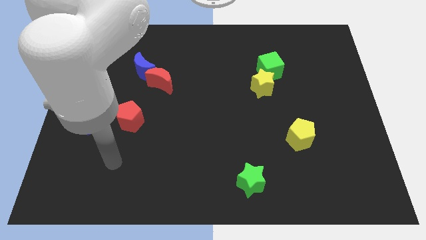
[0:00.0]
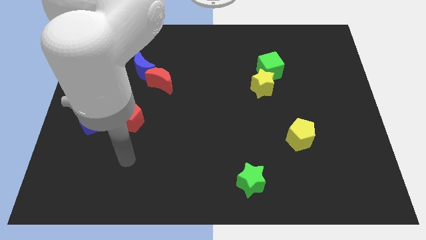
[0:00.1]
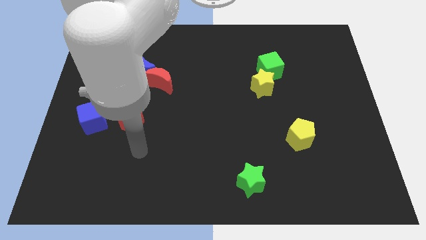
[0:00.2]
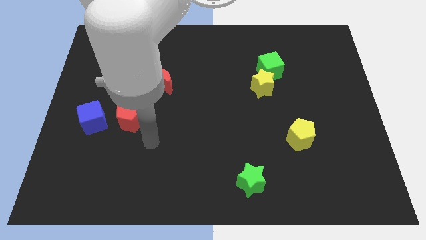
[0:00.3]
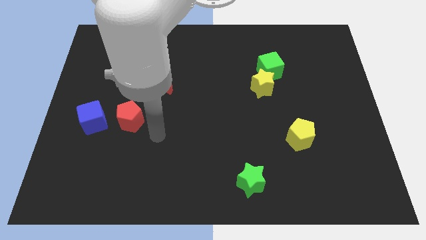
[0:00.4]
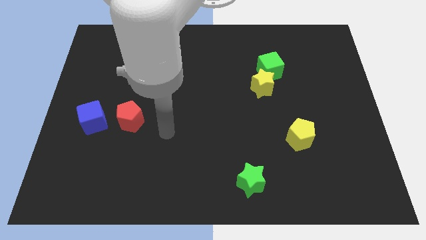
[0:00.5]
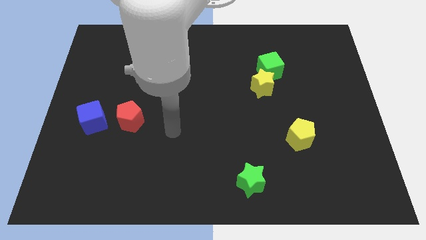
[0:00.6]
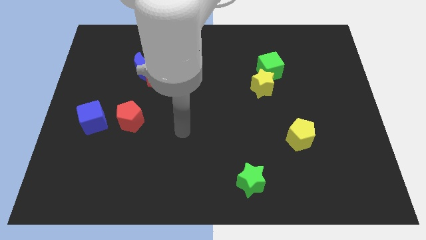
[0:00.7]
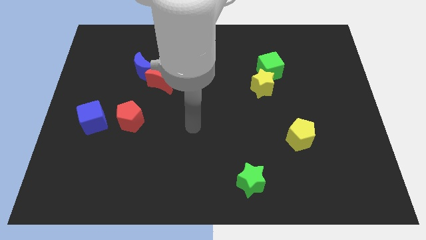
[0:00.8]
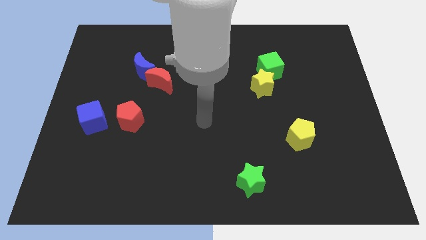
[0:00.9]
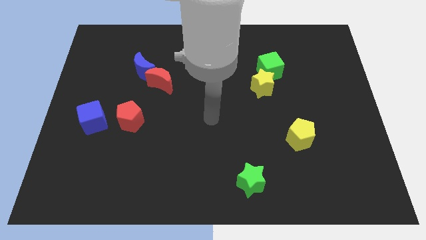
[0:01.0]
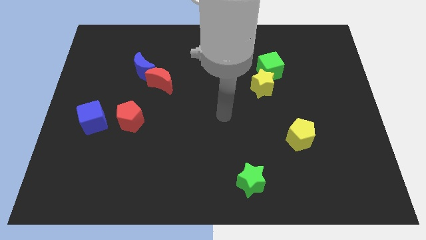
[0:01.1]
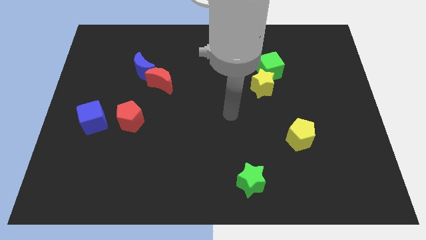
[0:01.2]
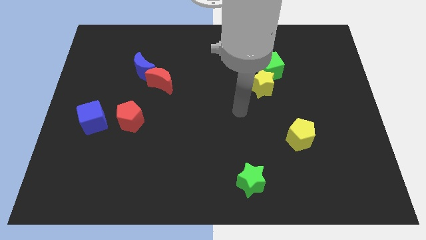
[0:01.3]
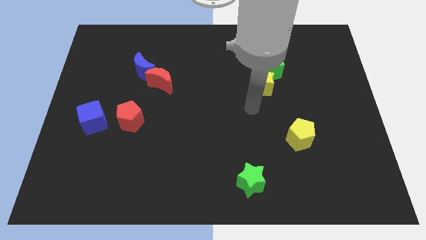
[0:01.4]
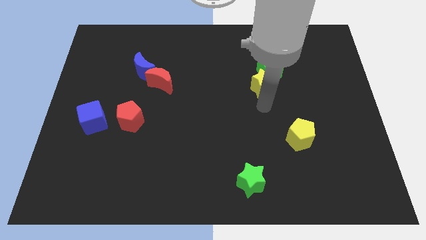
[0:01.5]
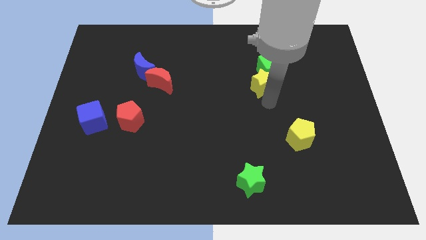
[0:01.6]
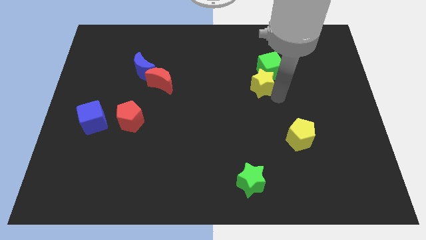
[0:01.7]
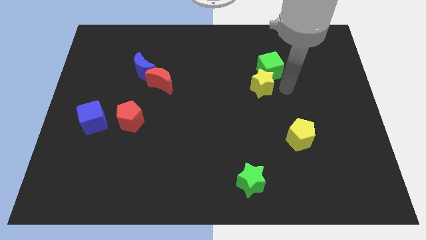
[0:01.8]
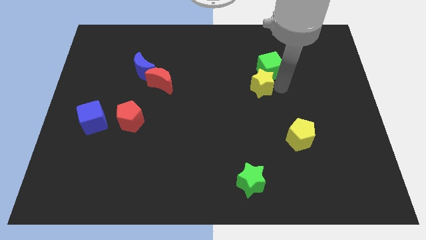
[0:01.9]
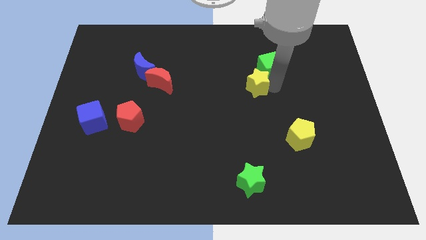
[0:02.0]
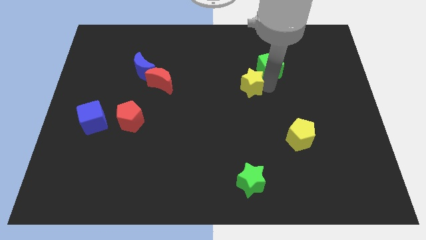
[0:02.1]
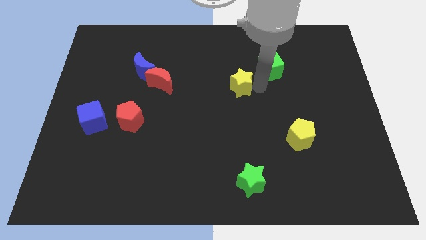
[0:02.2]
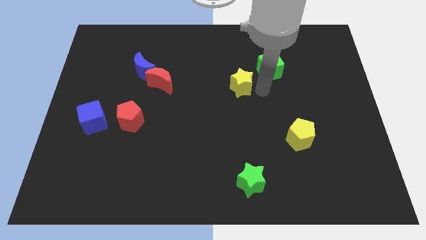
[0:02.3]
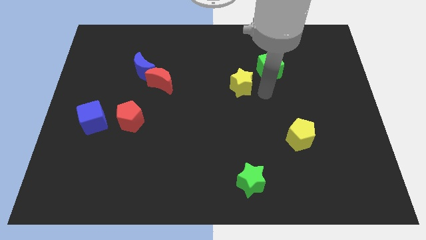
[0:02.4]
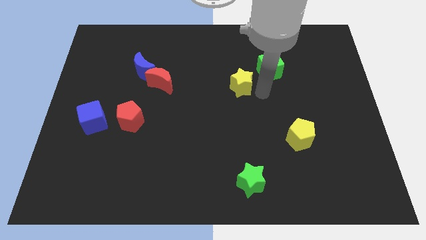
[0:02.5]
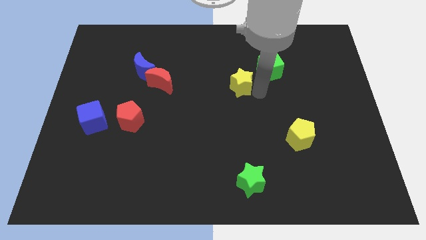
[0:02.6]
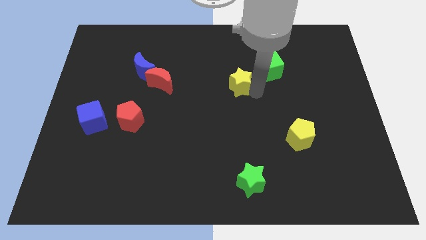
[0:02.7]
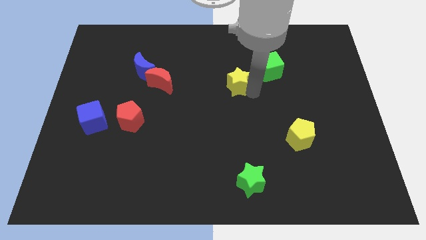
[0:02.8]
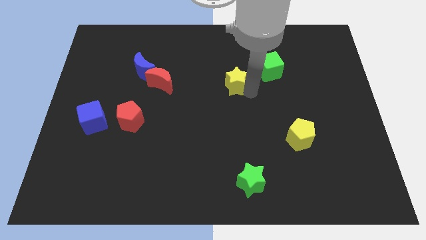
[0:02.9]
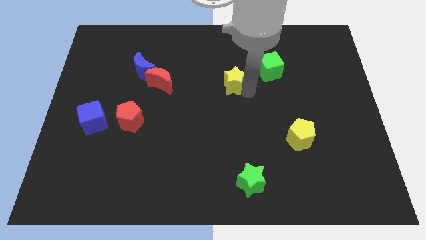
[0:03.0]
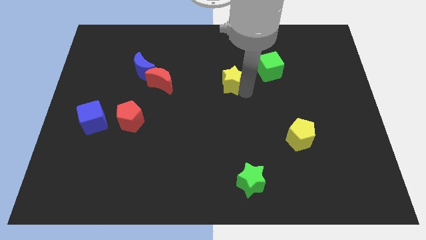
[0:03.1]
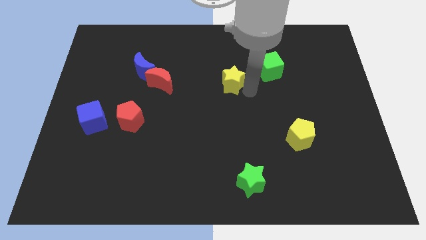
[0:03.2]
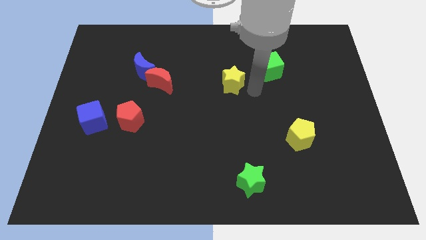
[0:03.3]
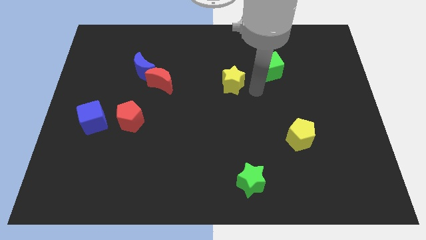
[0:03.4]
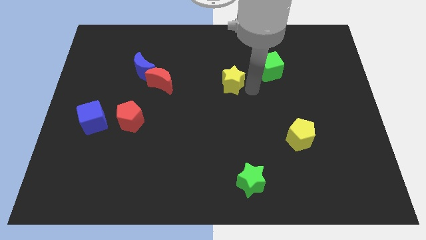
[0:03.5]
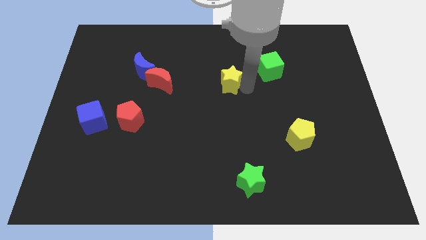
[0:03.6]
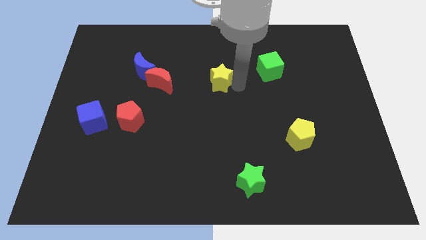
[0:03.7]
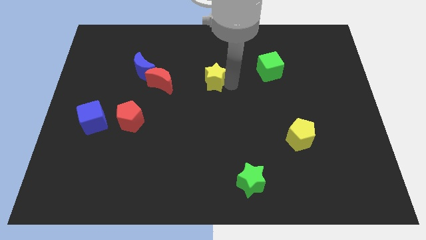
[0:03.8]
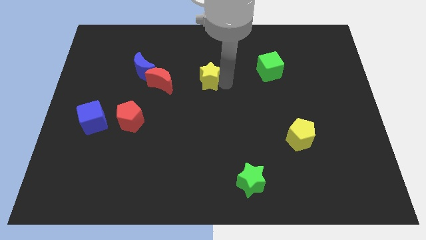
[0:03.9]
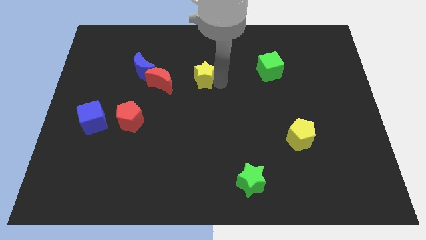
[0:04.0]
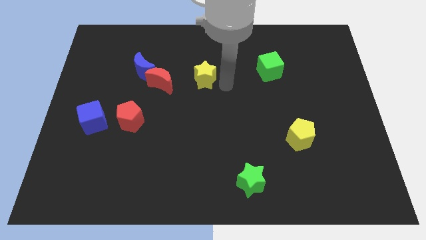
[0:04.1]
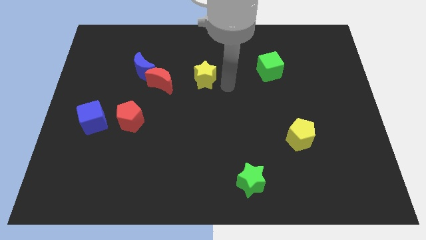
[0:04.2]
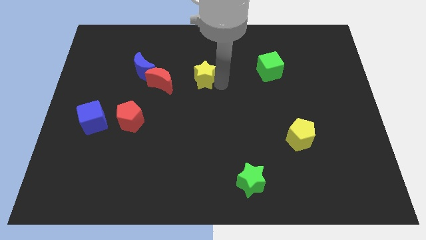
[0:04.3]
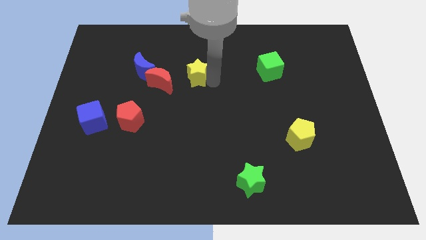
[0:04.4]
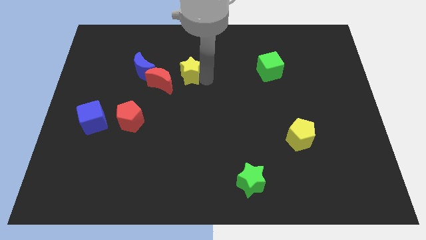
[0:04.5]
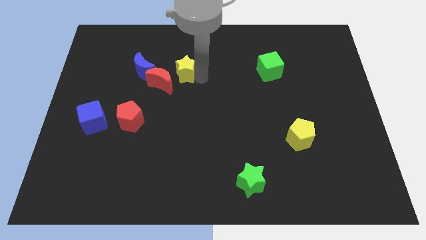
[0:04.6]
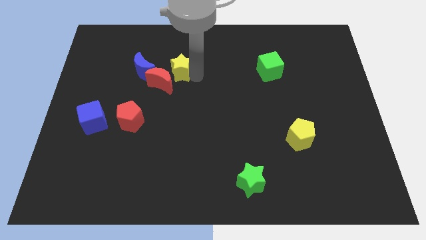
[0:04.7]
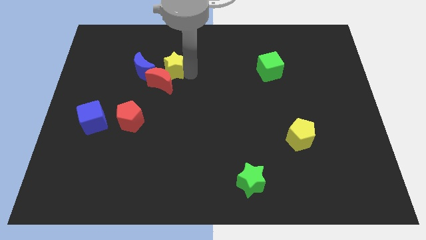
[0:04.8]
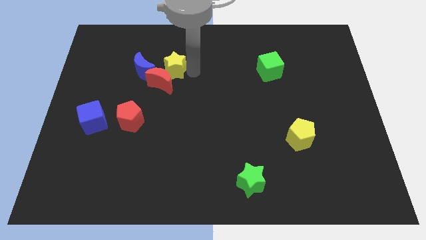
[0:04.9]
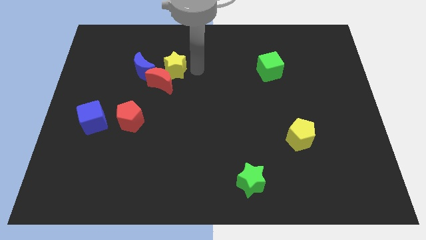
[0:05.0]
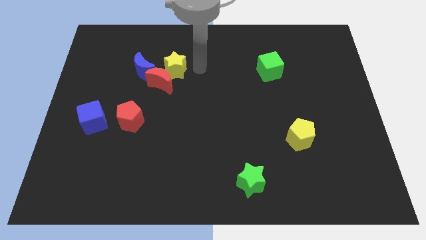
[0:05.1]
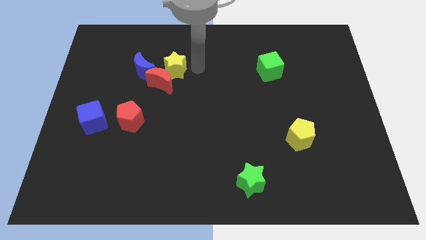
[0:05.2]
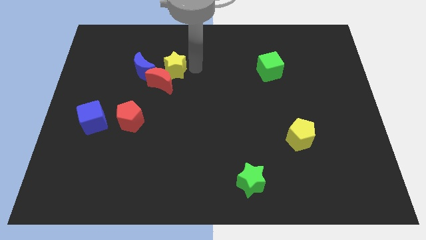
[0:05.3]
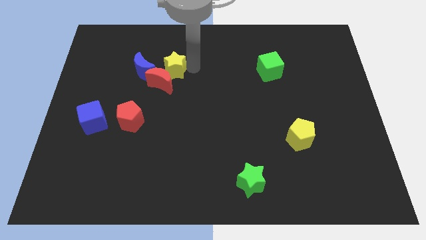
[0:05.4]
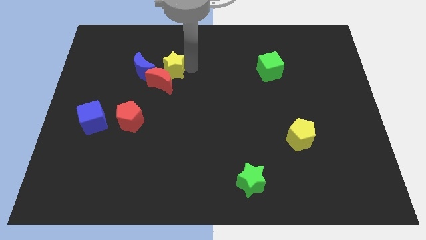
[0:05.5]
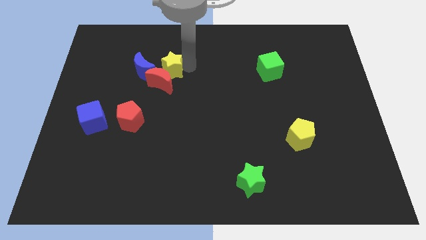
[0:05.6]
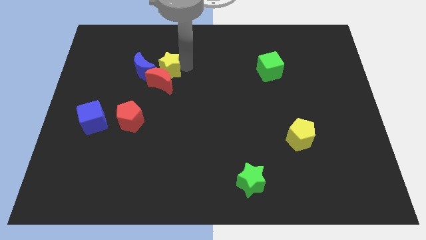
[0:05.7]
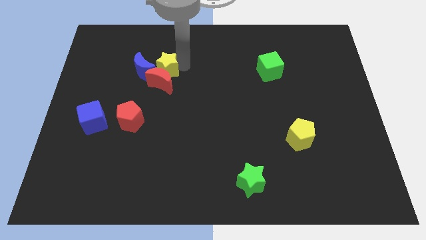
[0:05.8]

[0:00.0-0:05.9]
put the yellow star towards the blue moon

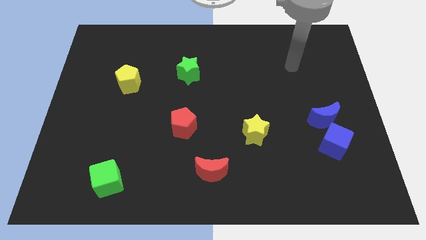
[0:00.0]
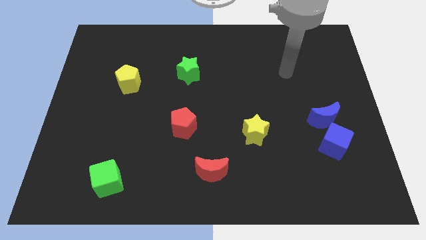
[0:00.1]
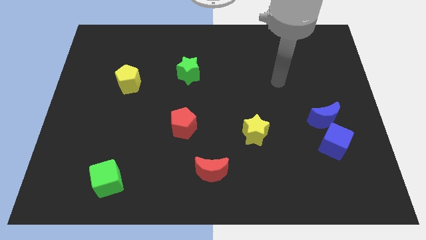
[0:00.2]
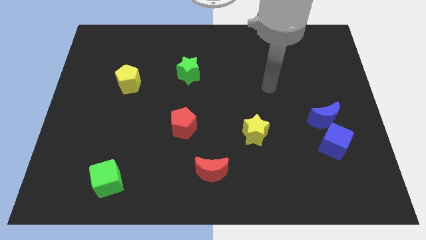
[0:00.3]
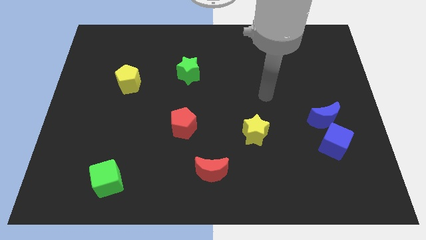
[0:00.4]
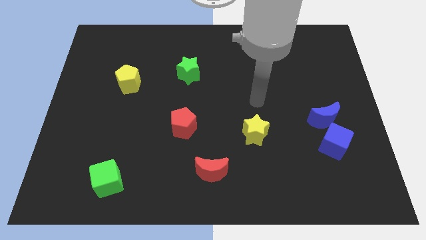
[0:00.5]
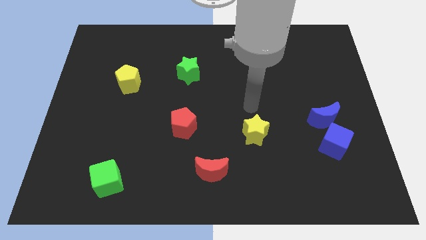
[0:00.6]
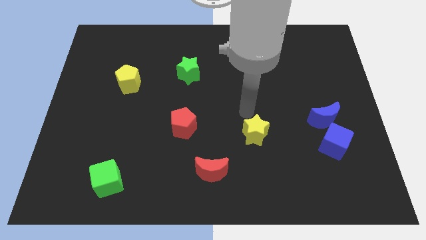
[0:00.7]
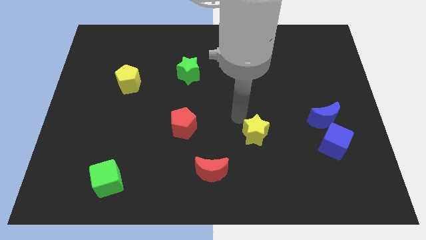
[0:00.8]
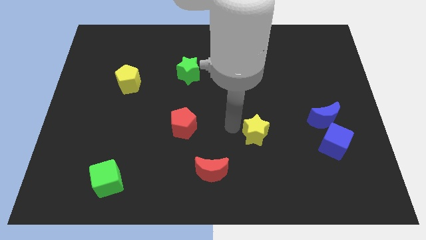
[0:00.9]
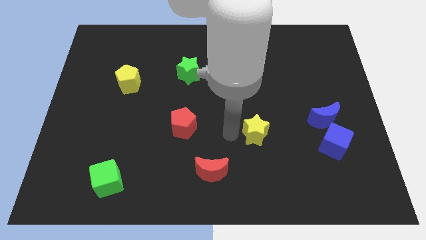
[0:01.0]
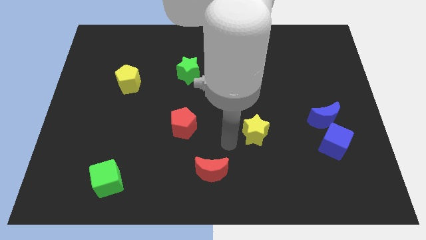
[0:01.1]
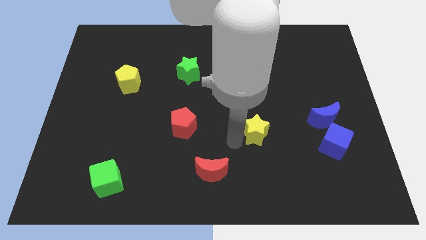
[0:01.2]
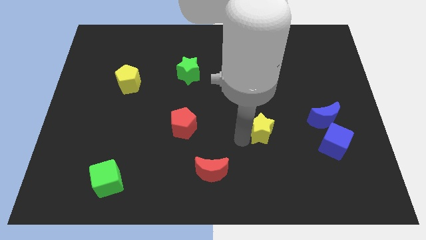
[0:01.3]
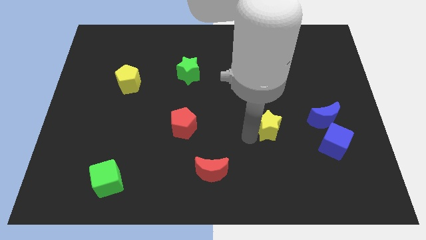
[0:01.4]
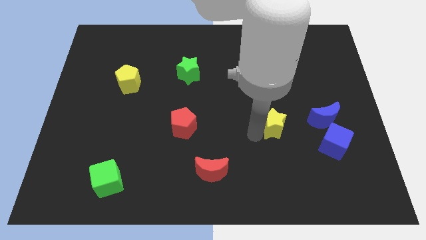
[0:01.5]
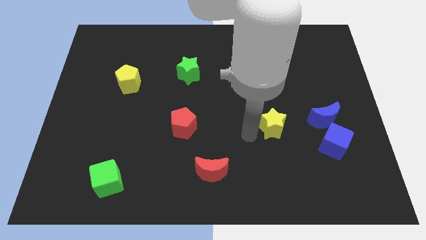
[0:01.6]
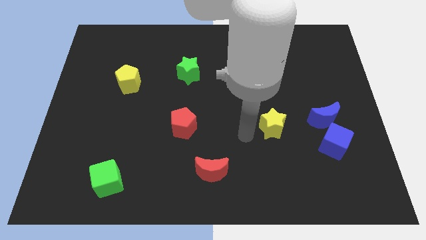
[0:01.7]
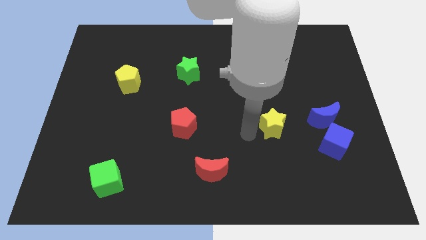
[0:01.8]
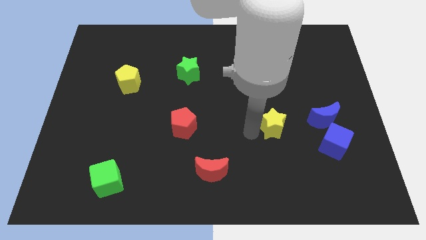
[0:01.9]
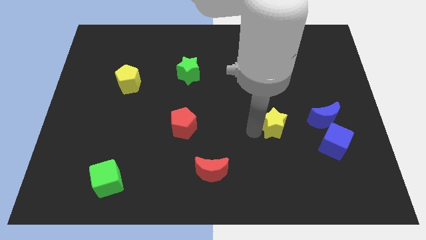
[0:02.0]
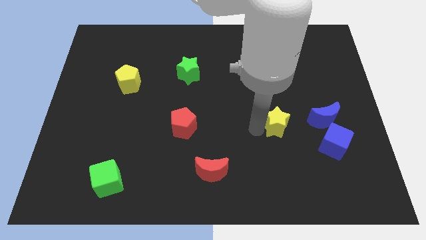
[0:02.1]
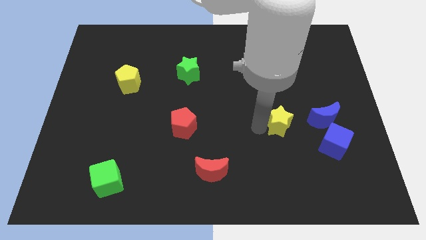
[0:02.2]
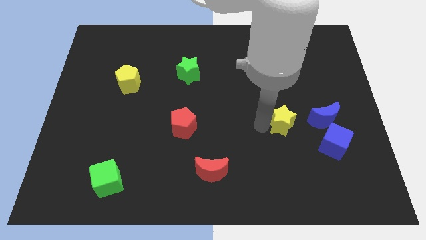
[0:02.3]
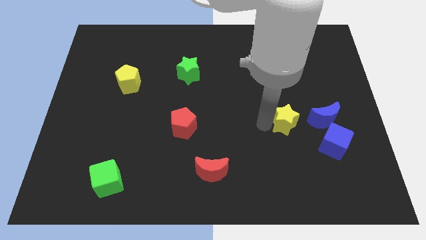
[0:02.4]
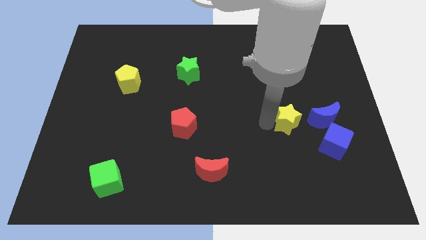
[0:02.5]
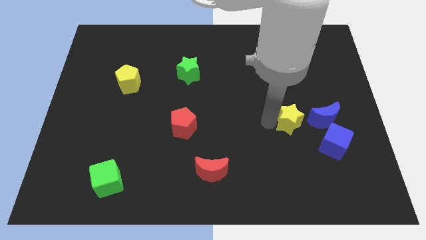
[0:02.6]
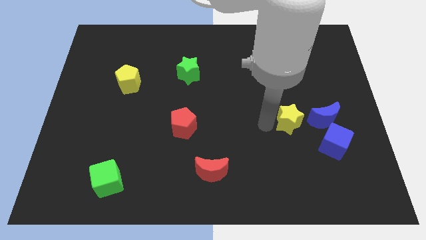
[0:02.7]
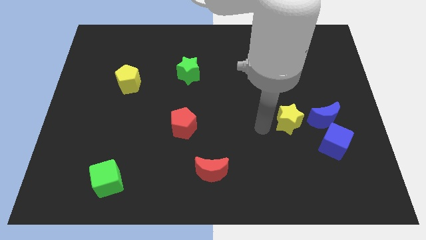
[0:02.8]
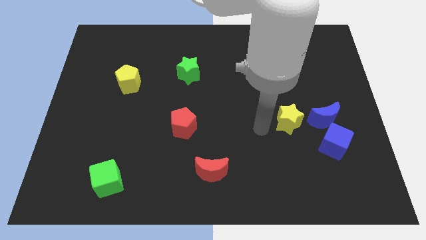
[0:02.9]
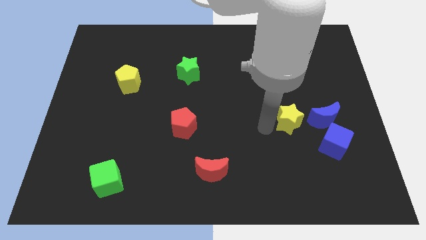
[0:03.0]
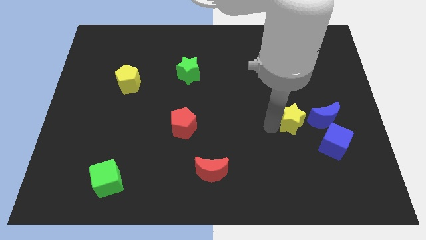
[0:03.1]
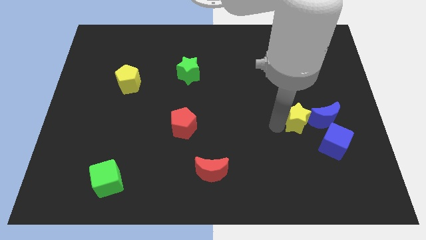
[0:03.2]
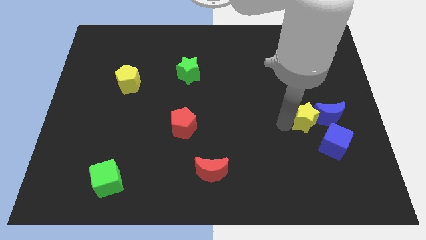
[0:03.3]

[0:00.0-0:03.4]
slide the yellow star towards the blue moon
